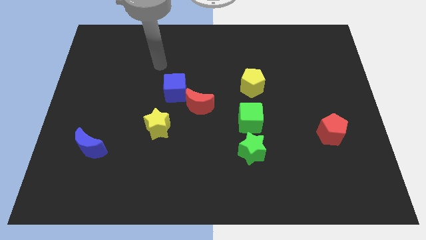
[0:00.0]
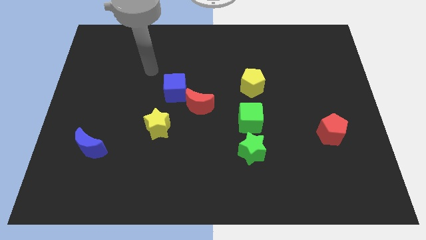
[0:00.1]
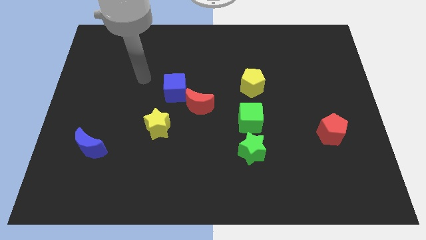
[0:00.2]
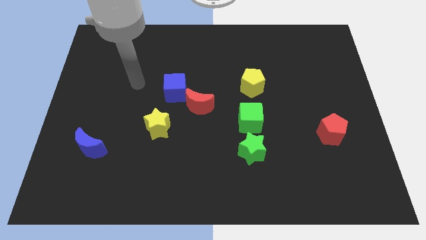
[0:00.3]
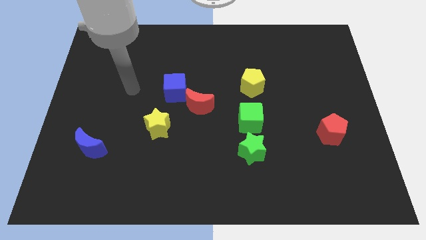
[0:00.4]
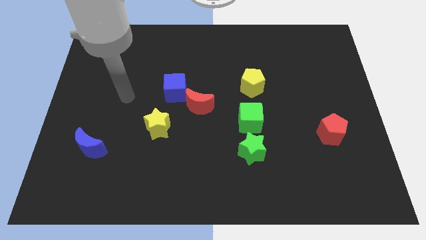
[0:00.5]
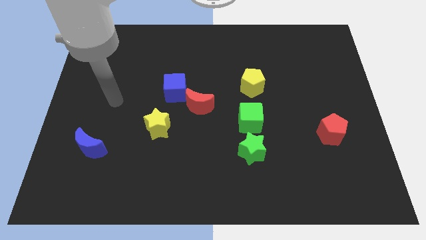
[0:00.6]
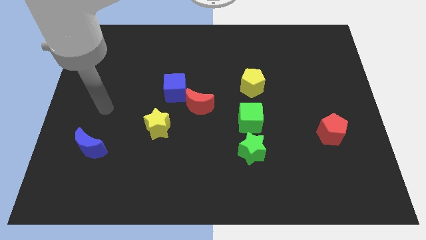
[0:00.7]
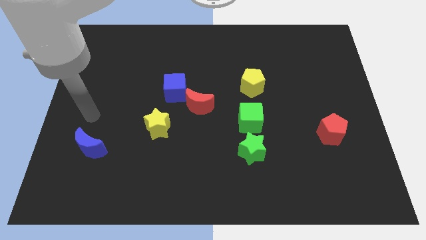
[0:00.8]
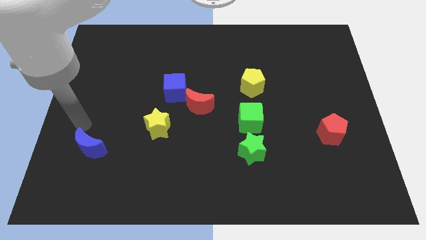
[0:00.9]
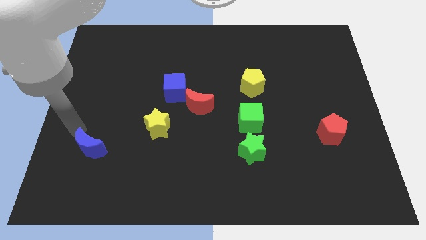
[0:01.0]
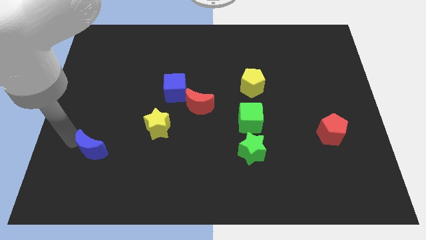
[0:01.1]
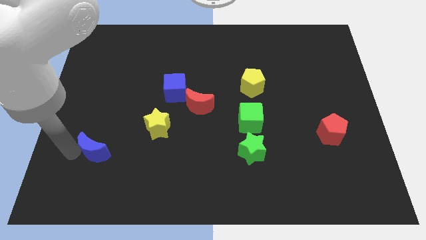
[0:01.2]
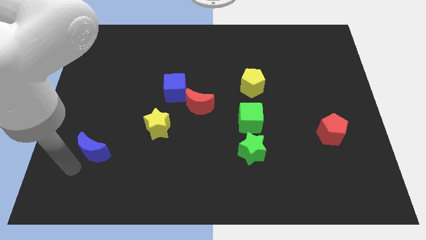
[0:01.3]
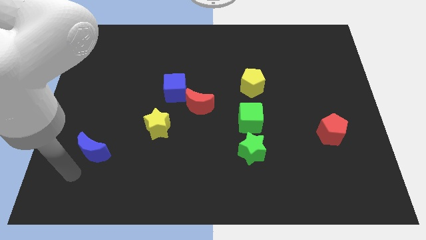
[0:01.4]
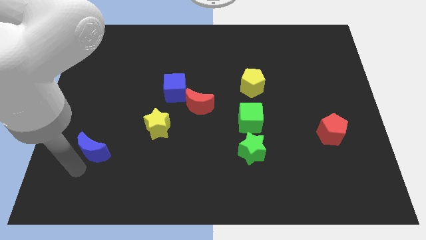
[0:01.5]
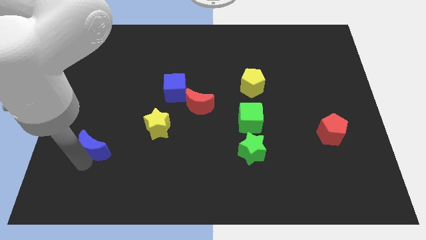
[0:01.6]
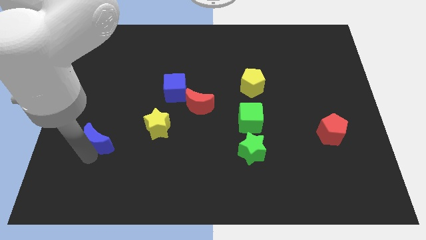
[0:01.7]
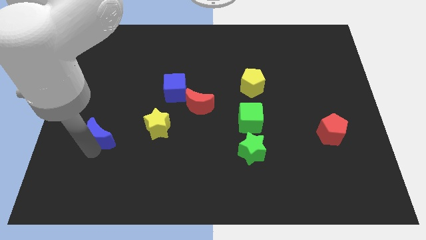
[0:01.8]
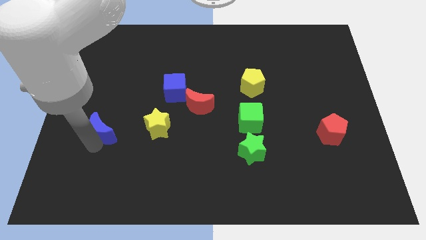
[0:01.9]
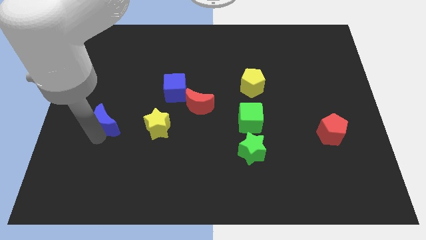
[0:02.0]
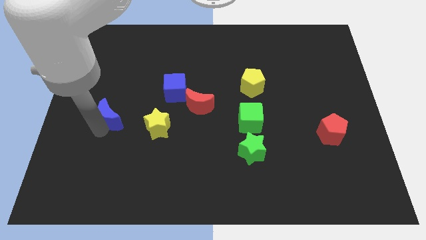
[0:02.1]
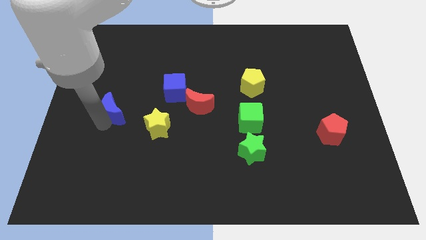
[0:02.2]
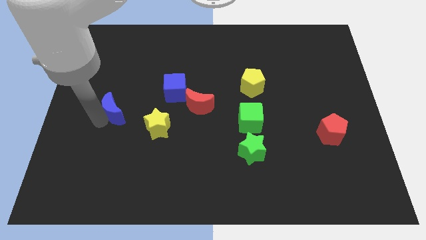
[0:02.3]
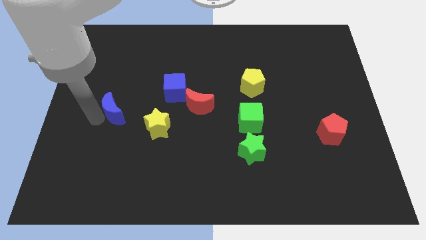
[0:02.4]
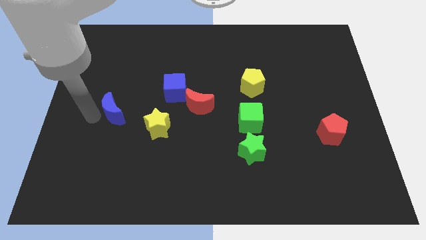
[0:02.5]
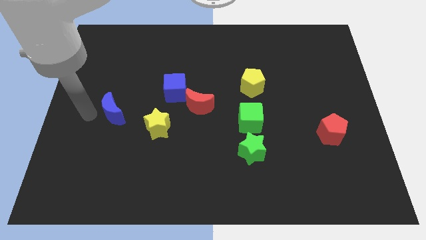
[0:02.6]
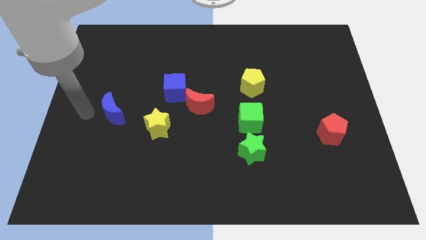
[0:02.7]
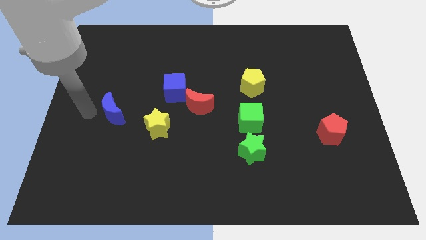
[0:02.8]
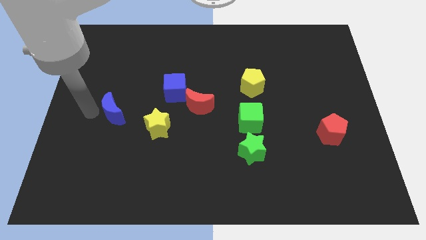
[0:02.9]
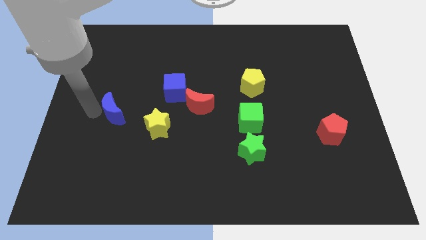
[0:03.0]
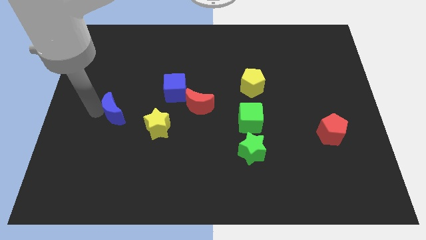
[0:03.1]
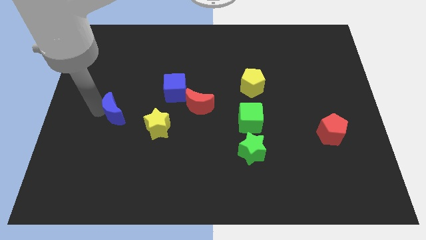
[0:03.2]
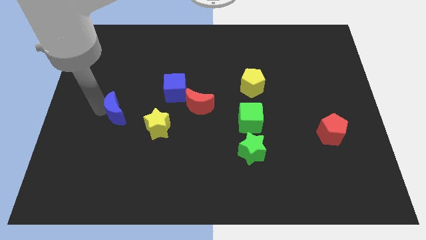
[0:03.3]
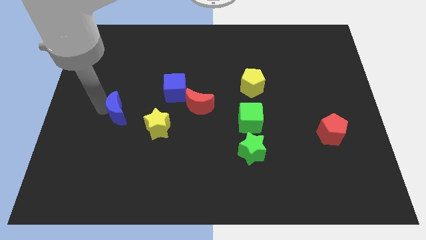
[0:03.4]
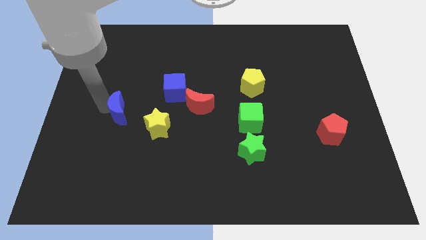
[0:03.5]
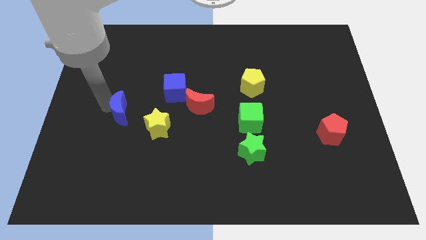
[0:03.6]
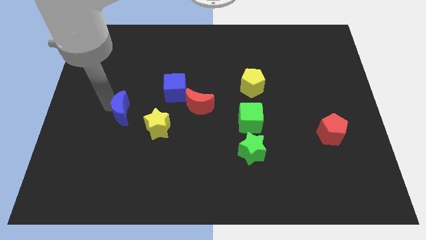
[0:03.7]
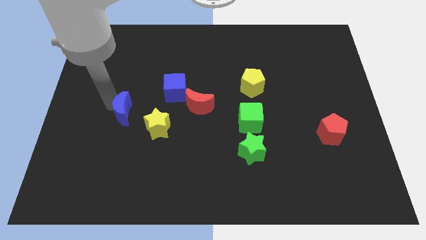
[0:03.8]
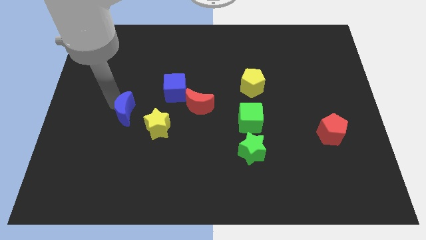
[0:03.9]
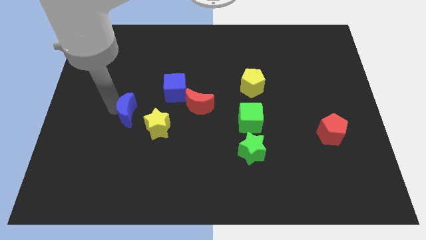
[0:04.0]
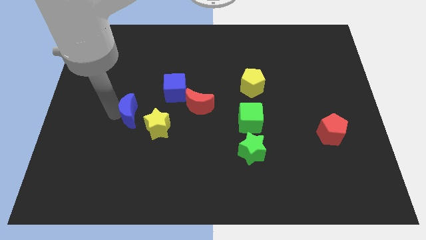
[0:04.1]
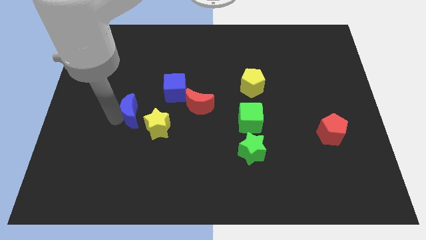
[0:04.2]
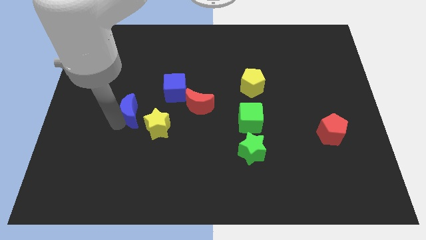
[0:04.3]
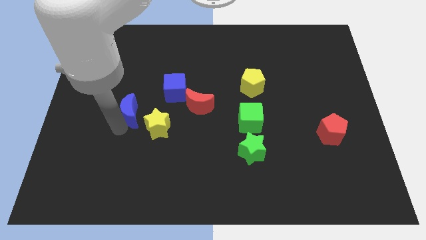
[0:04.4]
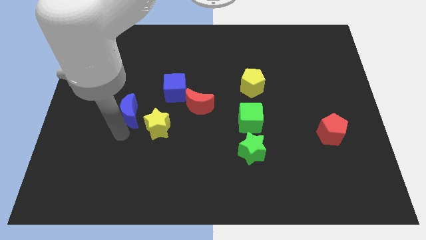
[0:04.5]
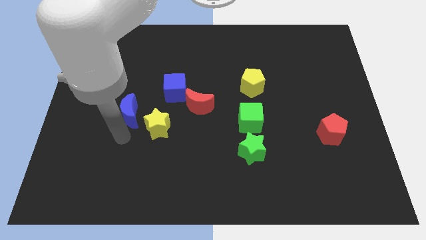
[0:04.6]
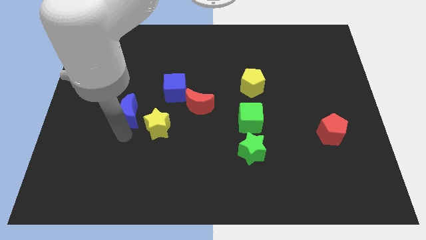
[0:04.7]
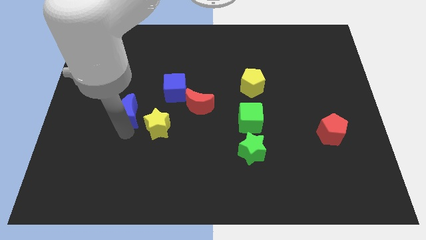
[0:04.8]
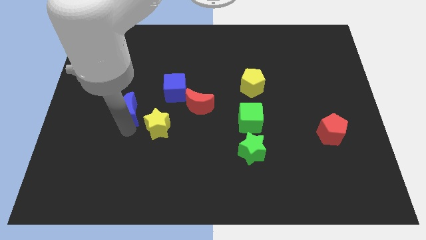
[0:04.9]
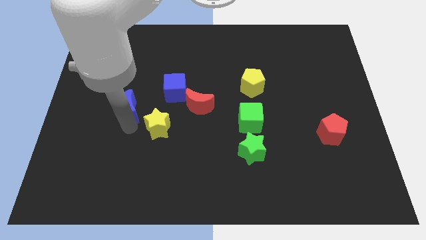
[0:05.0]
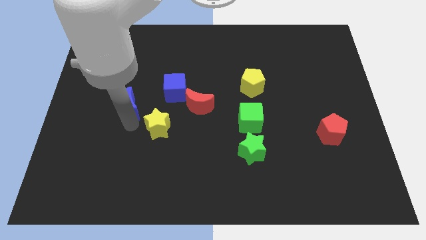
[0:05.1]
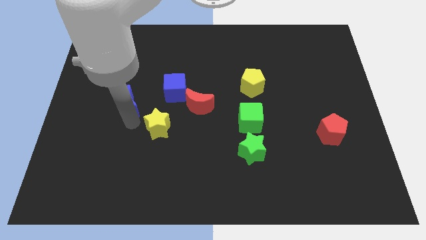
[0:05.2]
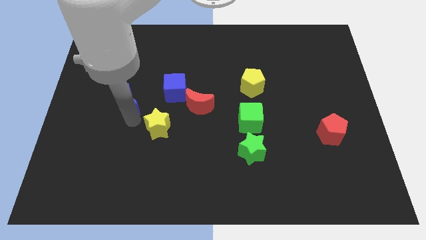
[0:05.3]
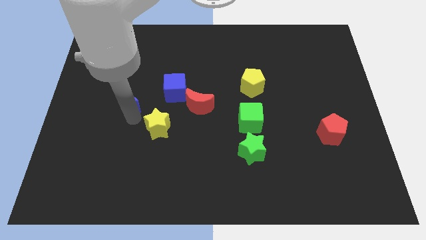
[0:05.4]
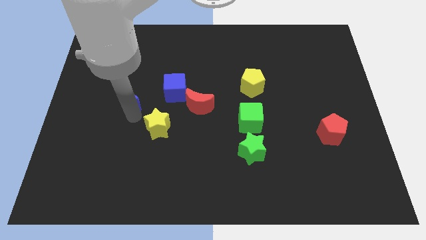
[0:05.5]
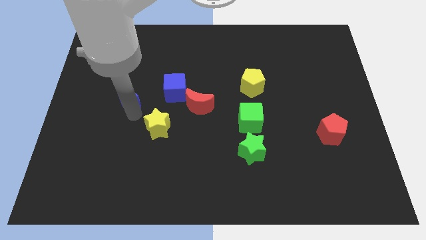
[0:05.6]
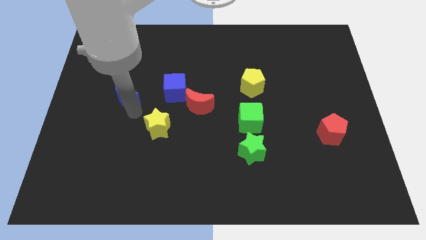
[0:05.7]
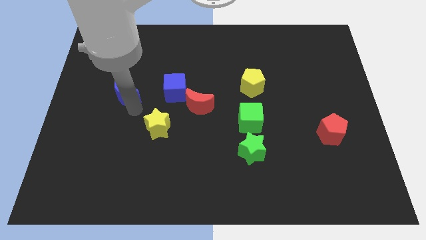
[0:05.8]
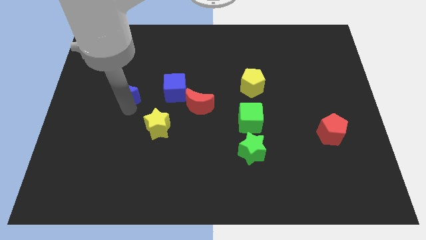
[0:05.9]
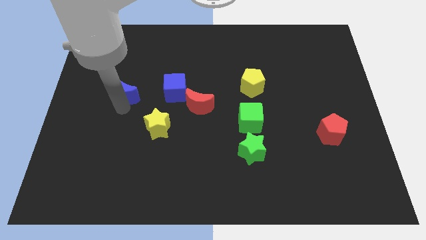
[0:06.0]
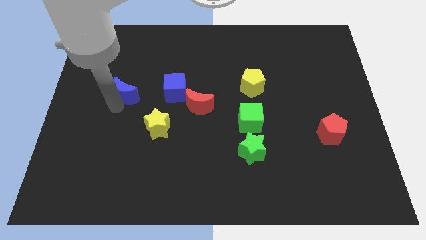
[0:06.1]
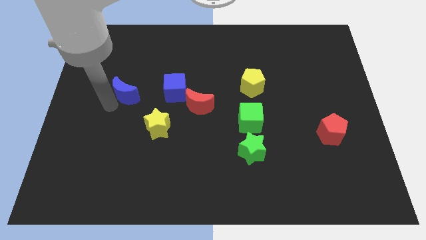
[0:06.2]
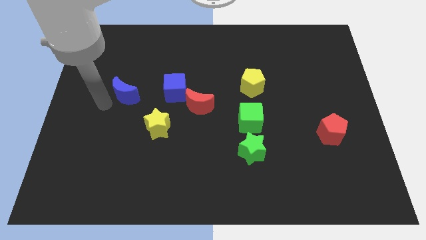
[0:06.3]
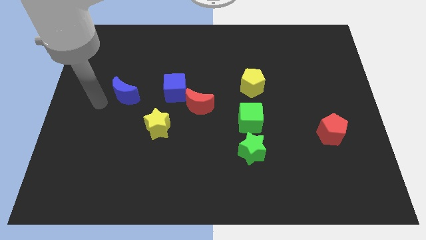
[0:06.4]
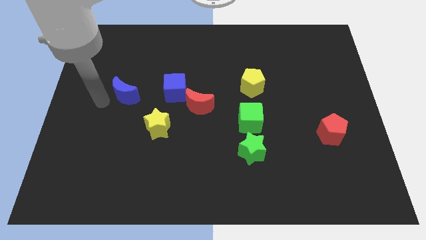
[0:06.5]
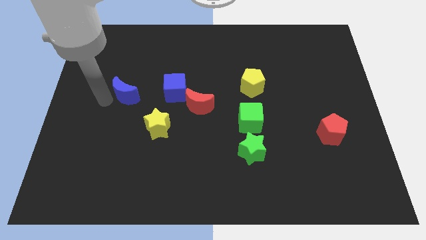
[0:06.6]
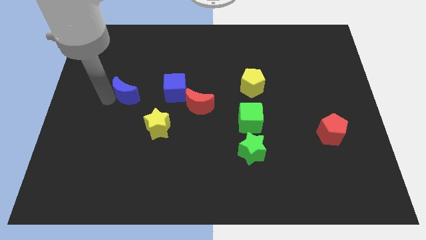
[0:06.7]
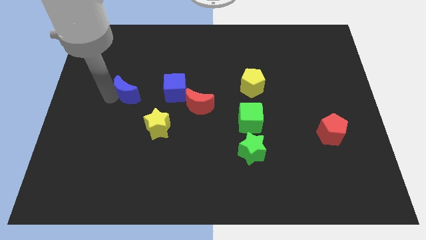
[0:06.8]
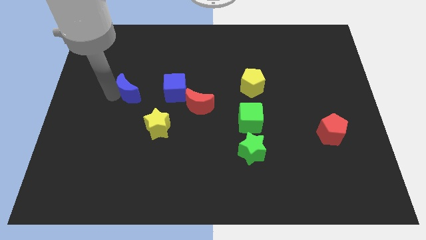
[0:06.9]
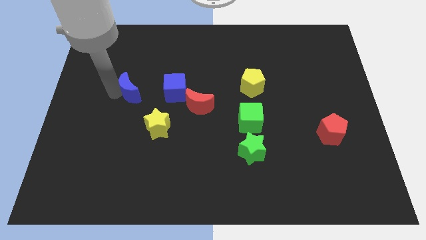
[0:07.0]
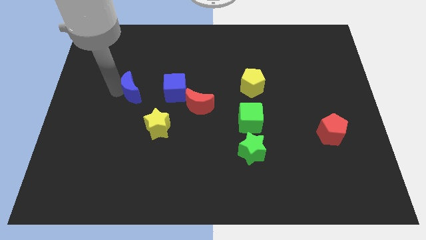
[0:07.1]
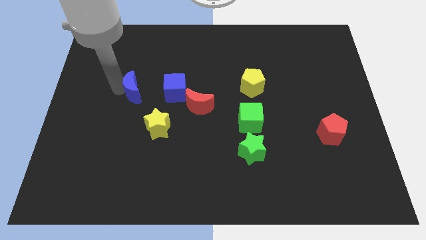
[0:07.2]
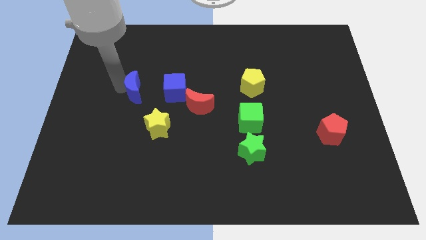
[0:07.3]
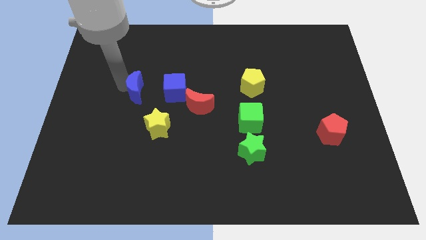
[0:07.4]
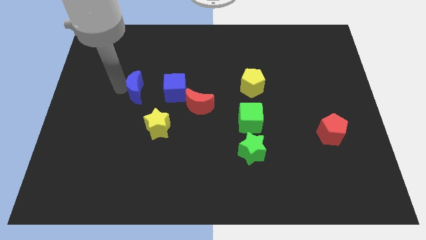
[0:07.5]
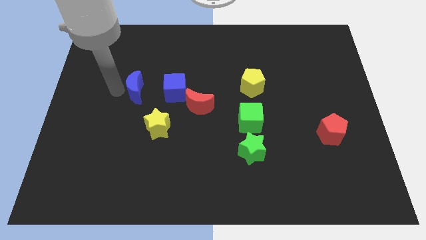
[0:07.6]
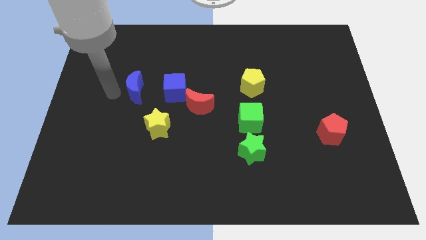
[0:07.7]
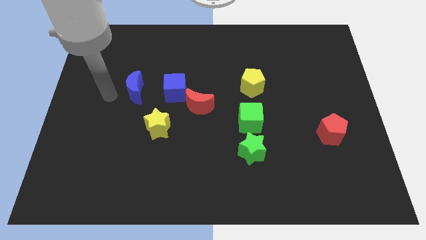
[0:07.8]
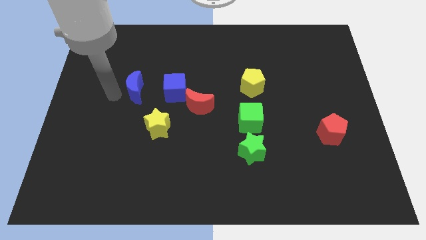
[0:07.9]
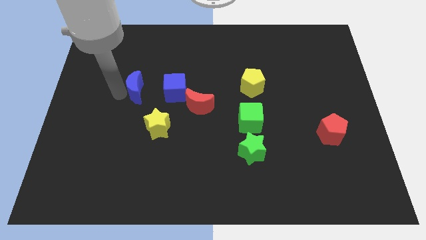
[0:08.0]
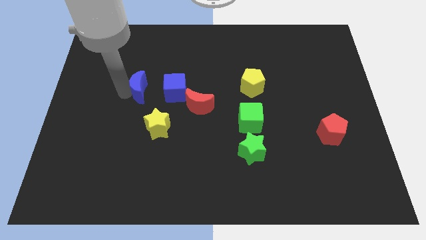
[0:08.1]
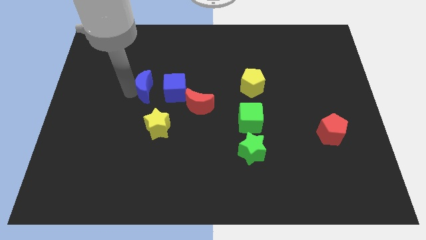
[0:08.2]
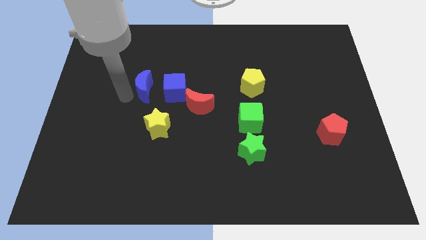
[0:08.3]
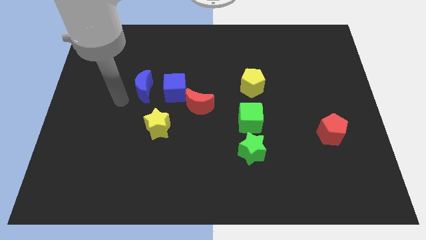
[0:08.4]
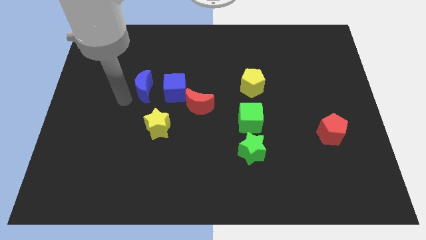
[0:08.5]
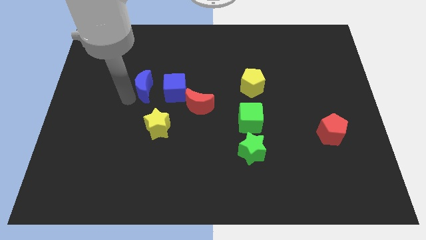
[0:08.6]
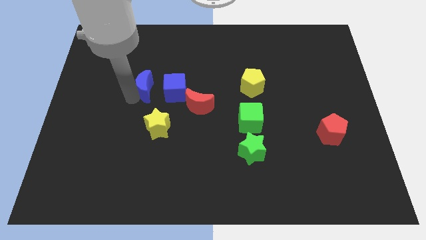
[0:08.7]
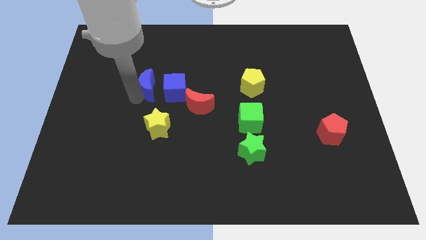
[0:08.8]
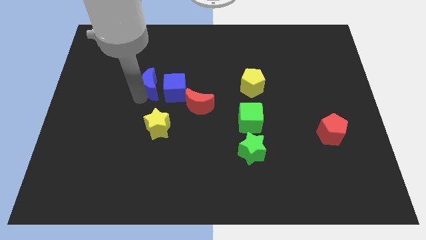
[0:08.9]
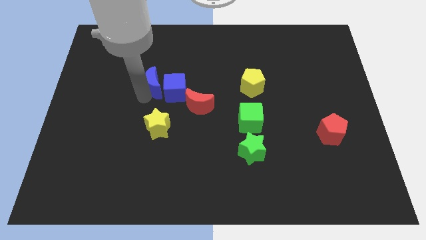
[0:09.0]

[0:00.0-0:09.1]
move the blue moon diagonally up and to the right
